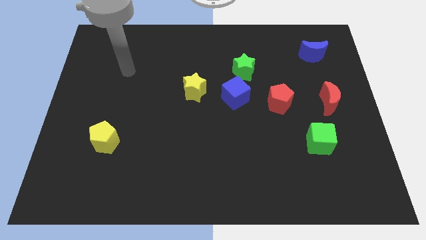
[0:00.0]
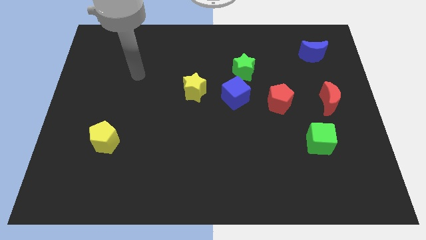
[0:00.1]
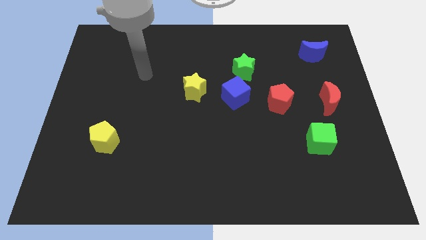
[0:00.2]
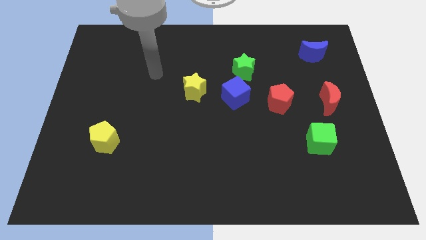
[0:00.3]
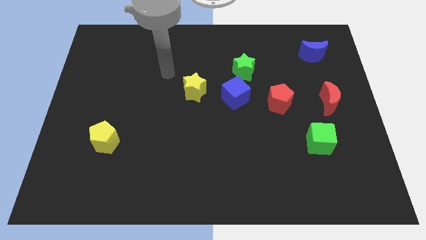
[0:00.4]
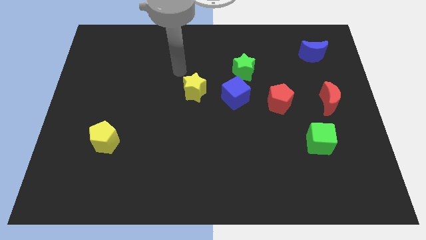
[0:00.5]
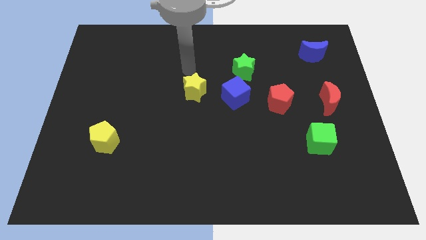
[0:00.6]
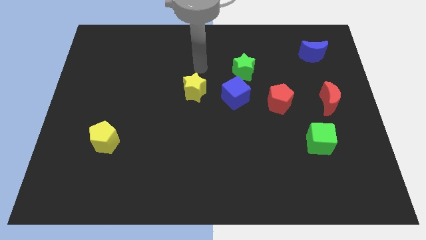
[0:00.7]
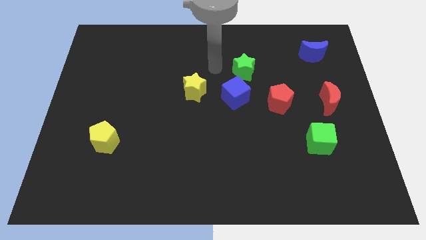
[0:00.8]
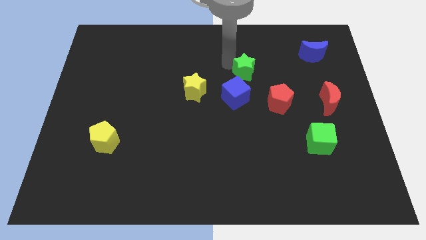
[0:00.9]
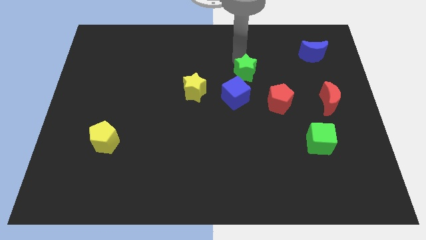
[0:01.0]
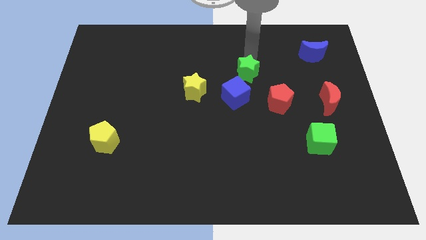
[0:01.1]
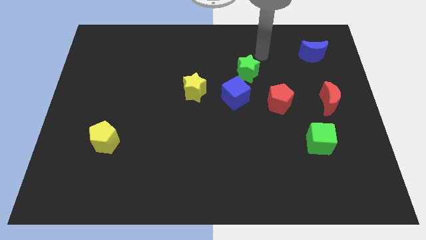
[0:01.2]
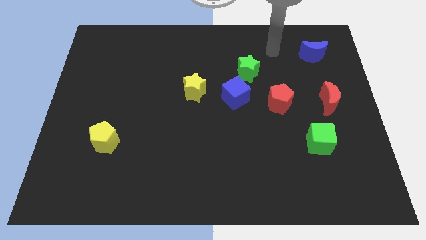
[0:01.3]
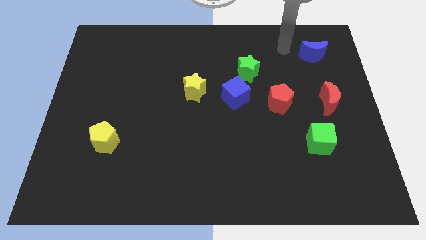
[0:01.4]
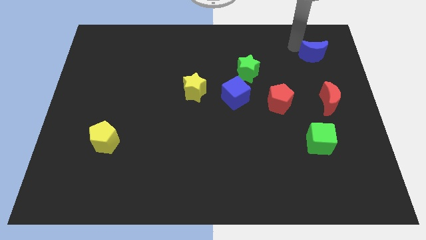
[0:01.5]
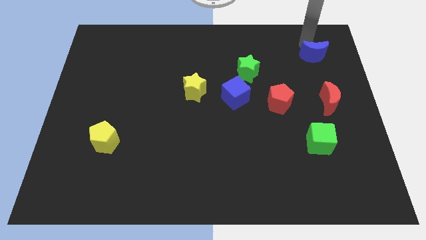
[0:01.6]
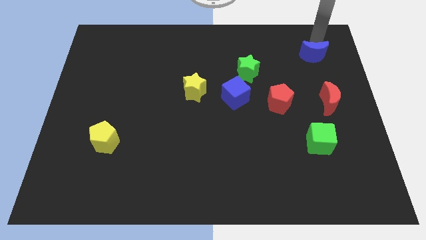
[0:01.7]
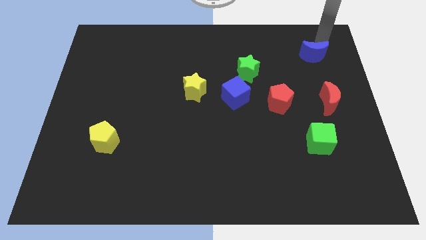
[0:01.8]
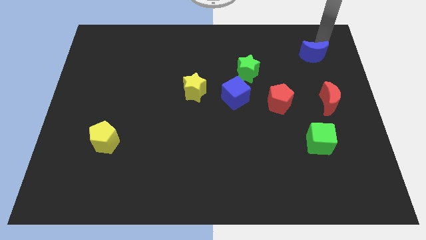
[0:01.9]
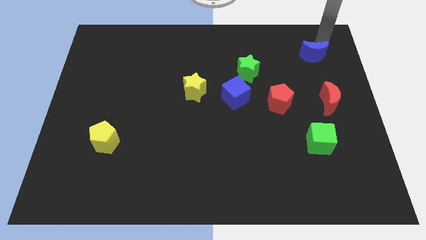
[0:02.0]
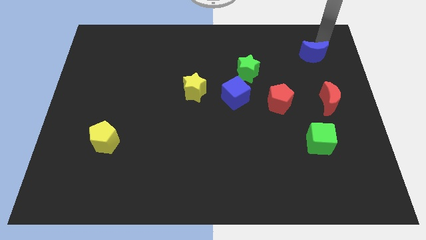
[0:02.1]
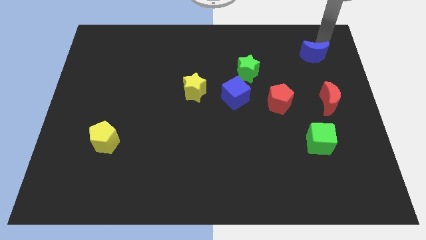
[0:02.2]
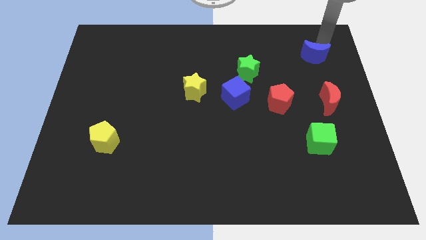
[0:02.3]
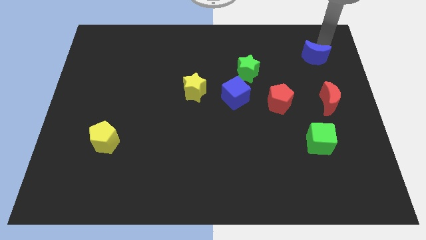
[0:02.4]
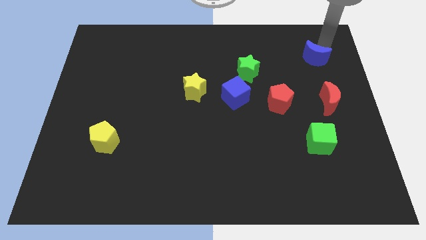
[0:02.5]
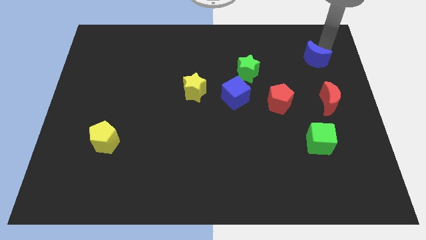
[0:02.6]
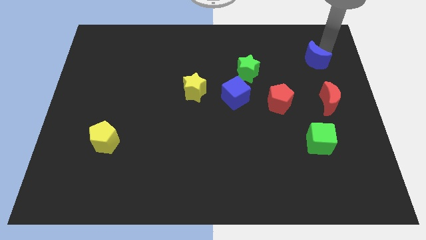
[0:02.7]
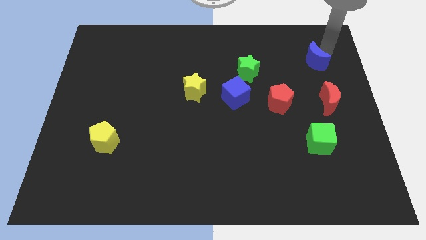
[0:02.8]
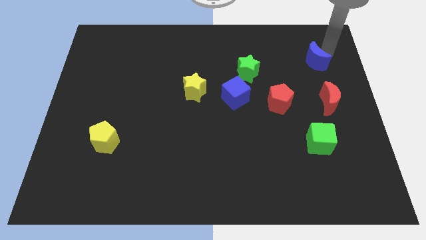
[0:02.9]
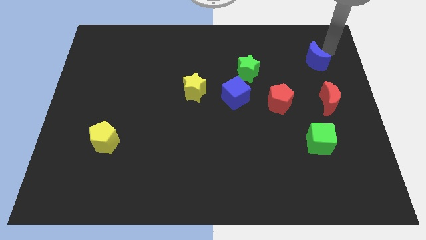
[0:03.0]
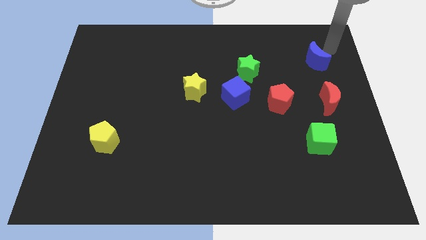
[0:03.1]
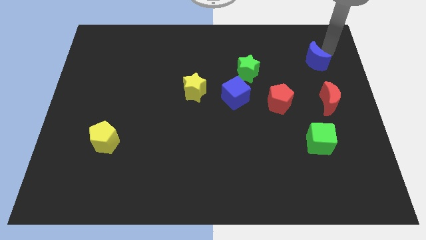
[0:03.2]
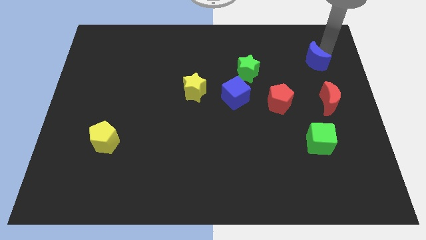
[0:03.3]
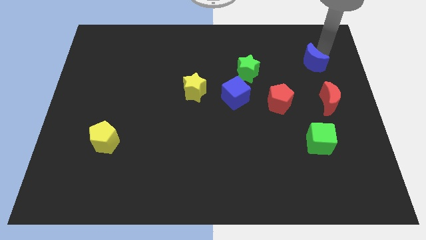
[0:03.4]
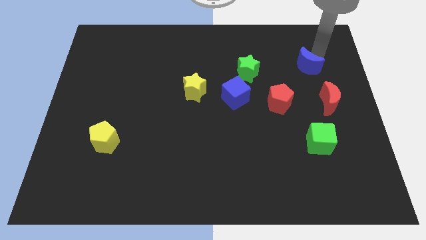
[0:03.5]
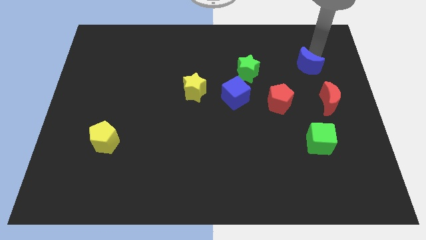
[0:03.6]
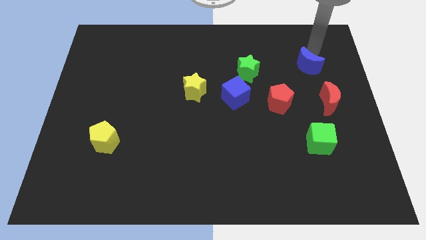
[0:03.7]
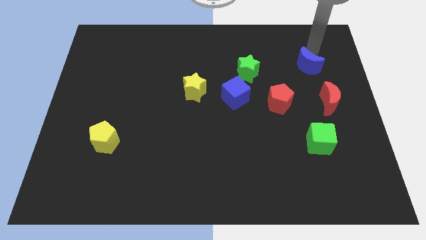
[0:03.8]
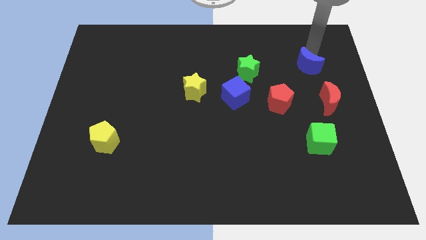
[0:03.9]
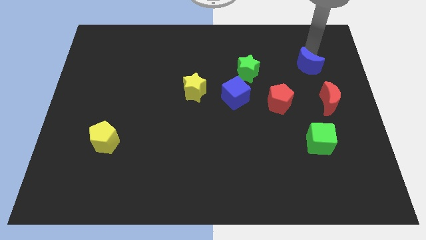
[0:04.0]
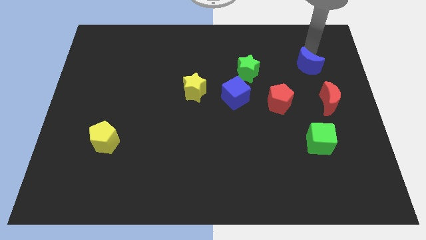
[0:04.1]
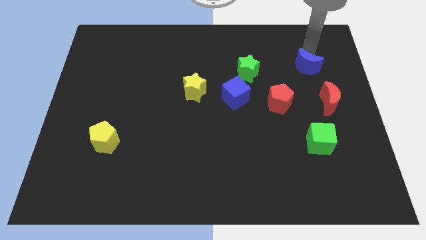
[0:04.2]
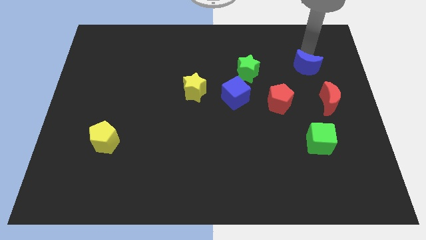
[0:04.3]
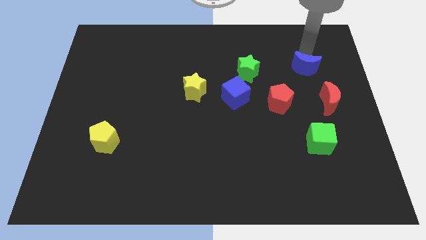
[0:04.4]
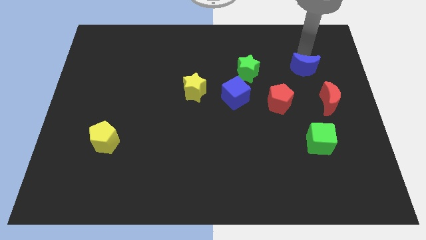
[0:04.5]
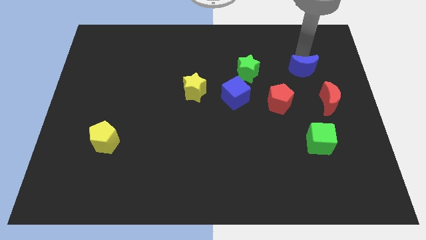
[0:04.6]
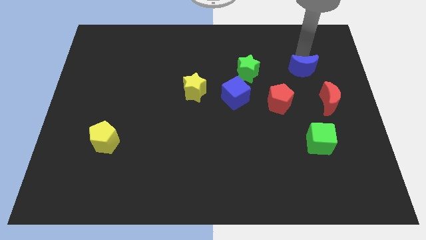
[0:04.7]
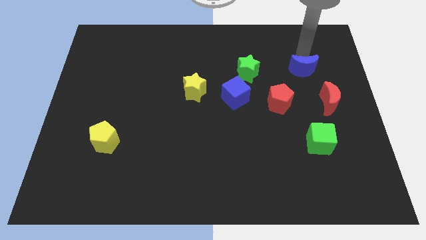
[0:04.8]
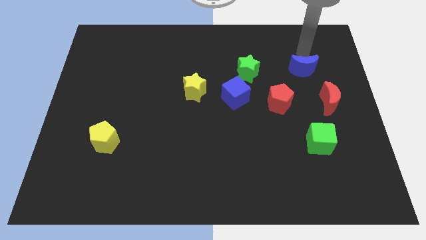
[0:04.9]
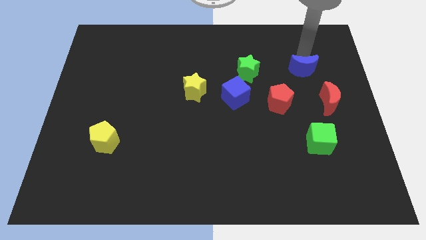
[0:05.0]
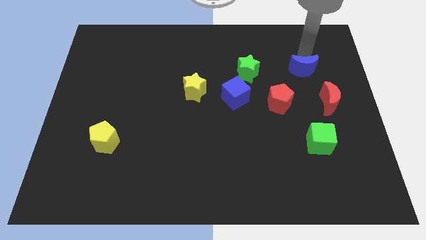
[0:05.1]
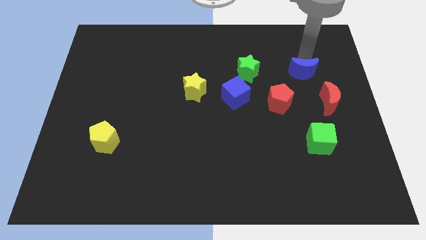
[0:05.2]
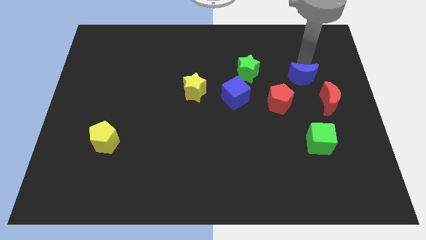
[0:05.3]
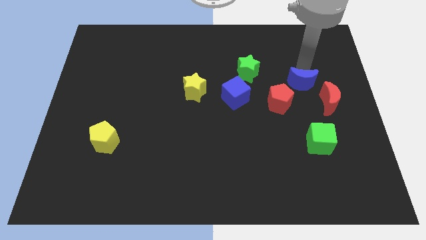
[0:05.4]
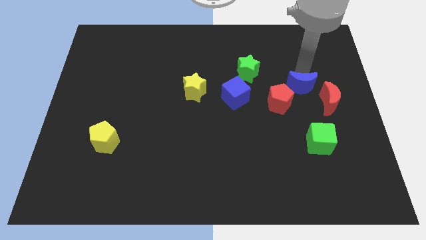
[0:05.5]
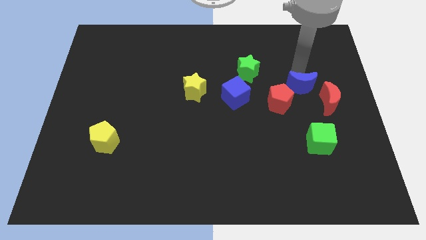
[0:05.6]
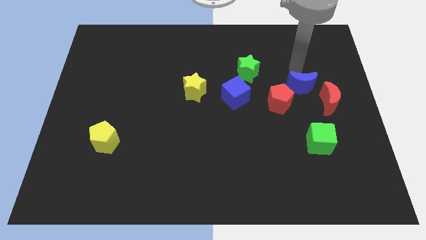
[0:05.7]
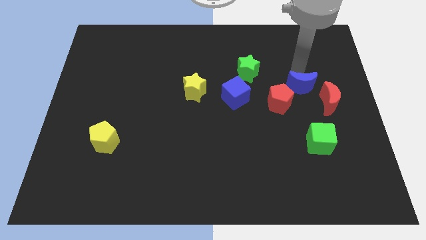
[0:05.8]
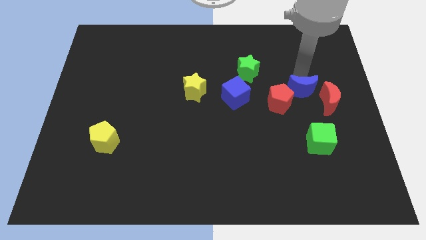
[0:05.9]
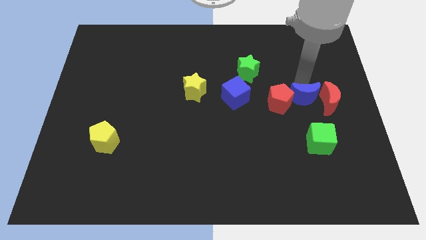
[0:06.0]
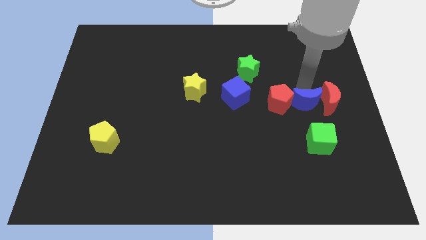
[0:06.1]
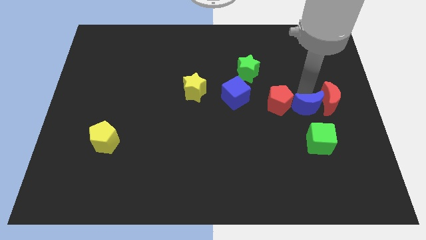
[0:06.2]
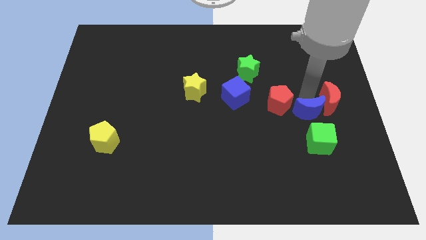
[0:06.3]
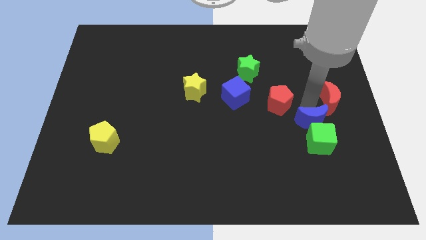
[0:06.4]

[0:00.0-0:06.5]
put the blue moon next to the green cube

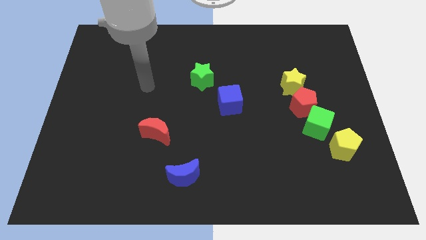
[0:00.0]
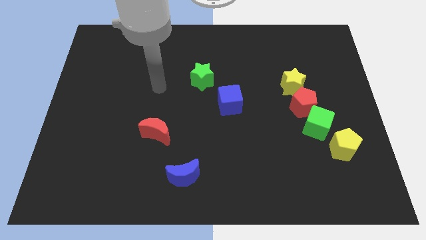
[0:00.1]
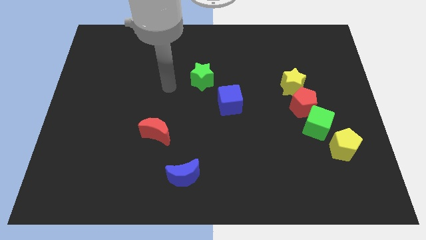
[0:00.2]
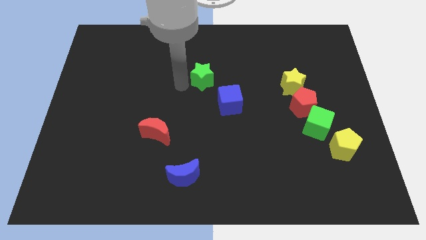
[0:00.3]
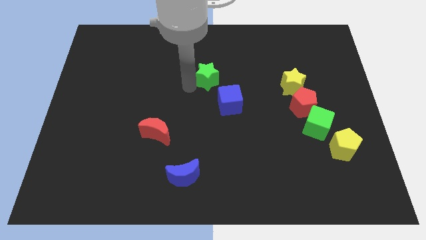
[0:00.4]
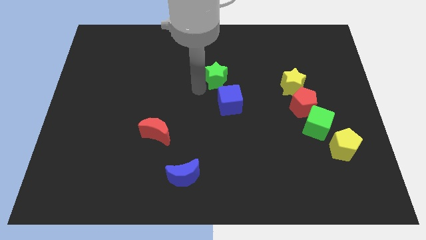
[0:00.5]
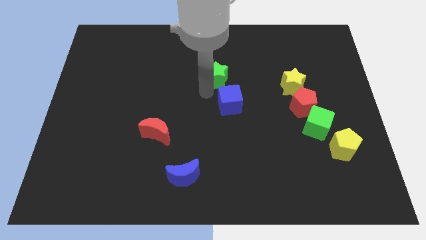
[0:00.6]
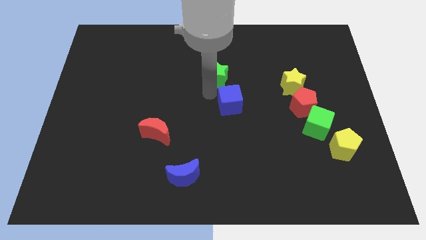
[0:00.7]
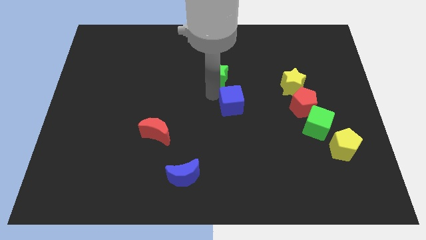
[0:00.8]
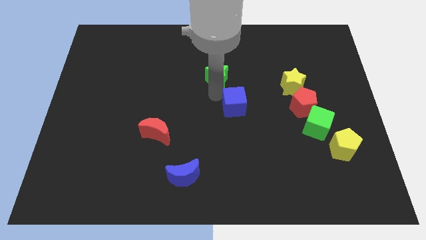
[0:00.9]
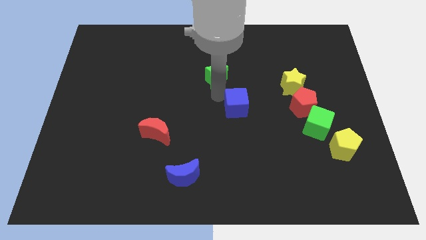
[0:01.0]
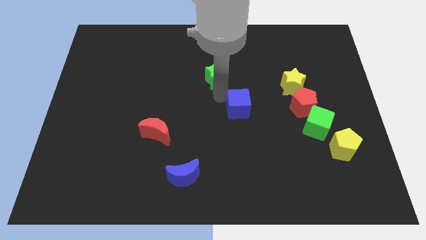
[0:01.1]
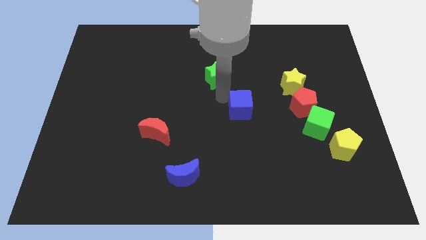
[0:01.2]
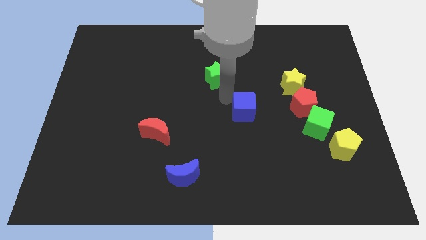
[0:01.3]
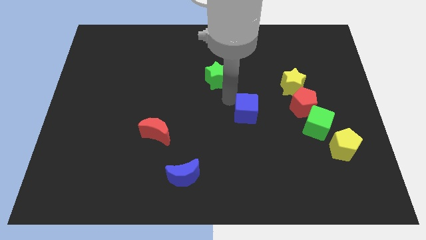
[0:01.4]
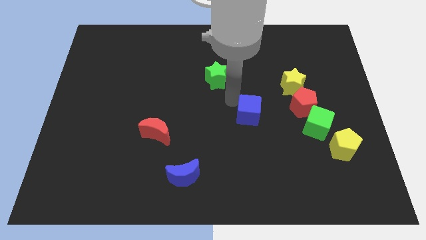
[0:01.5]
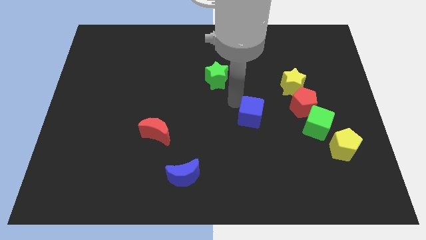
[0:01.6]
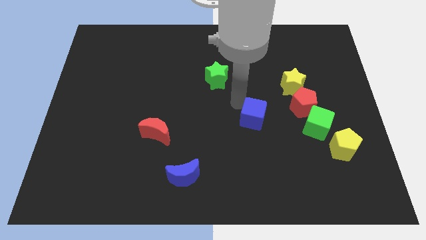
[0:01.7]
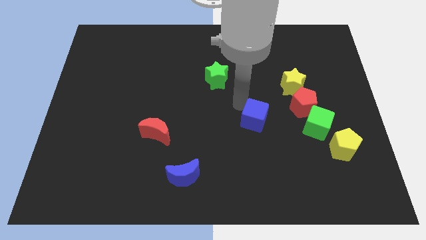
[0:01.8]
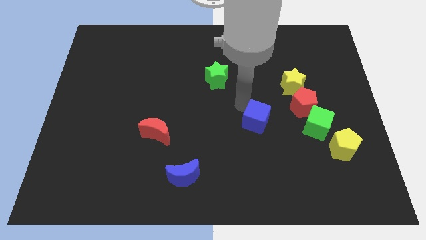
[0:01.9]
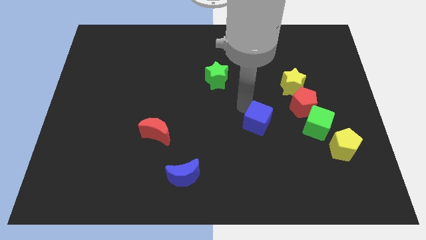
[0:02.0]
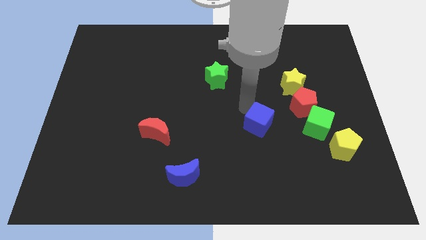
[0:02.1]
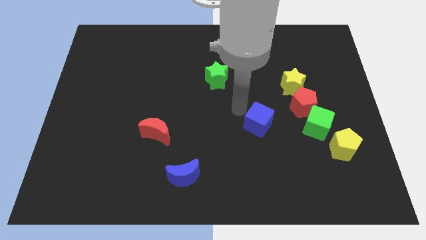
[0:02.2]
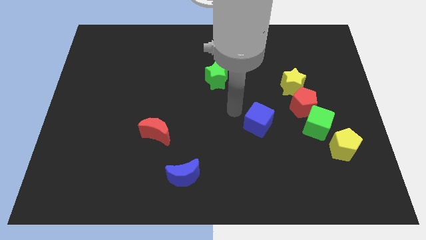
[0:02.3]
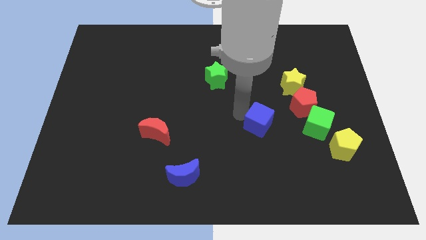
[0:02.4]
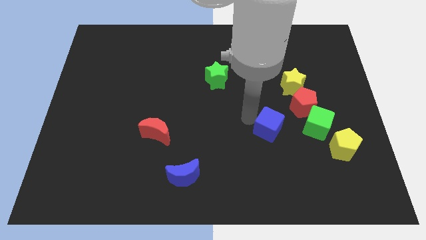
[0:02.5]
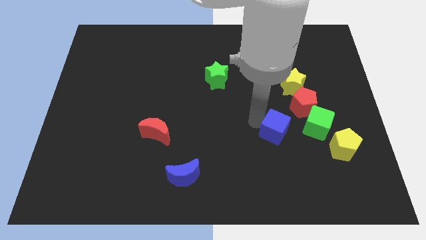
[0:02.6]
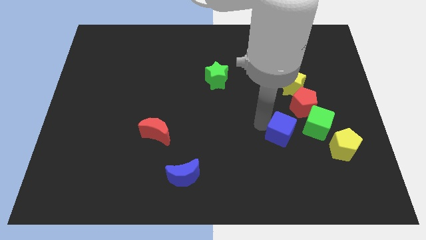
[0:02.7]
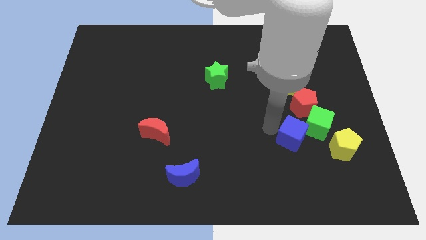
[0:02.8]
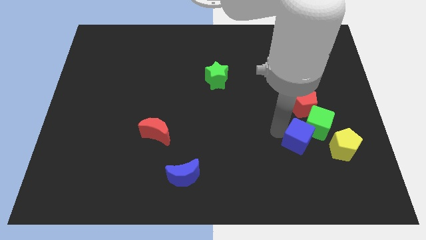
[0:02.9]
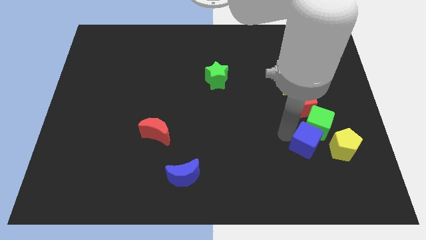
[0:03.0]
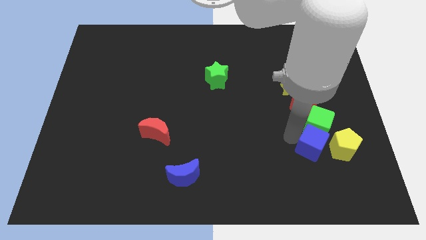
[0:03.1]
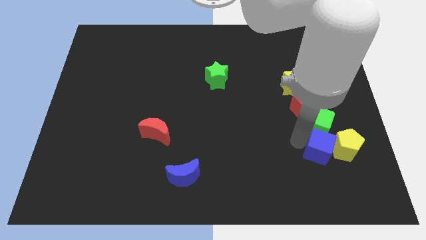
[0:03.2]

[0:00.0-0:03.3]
slide the blue cube close to the yellow pentagon
